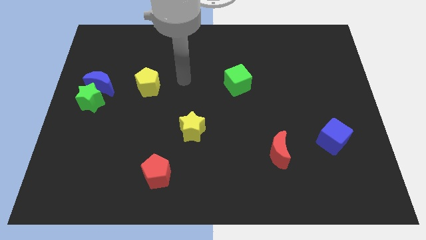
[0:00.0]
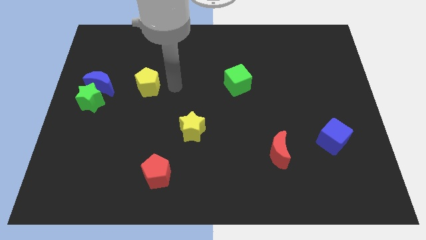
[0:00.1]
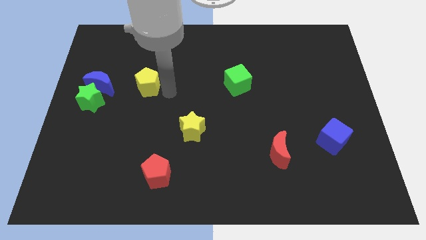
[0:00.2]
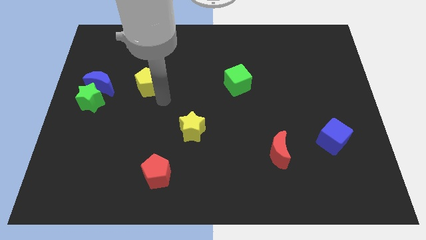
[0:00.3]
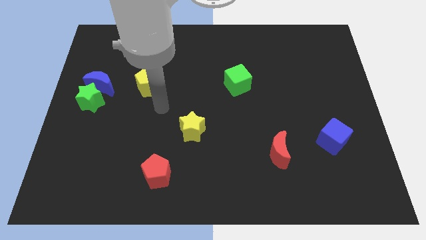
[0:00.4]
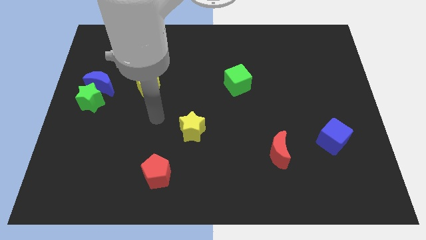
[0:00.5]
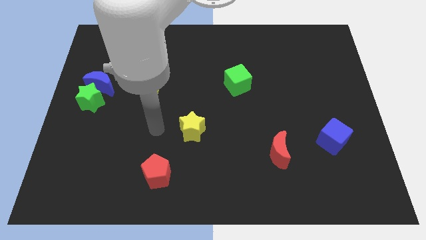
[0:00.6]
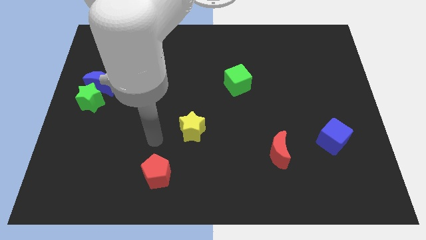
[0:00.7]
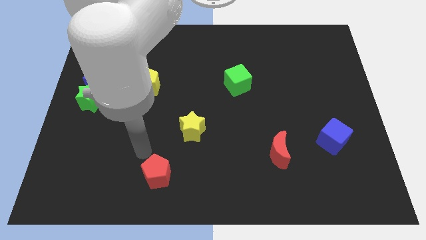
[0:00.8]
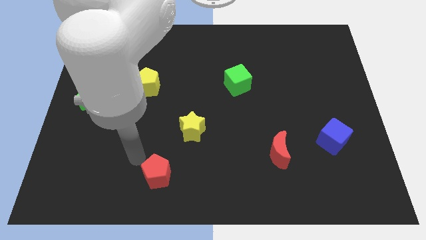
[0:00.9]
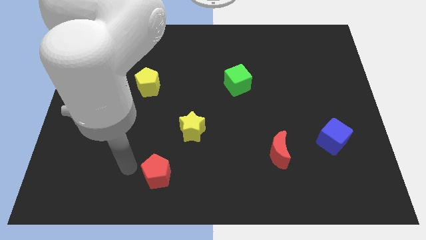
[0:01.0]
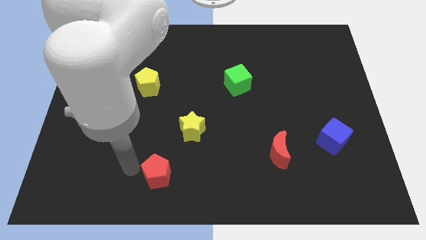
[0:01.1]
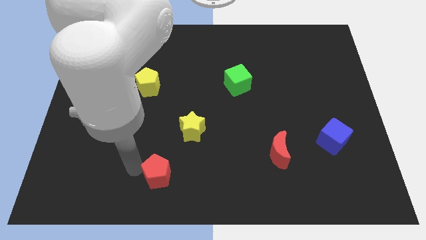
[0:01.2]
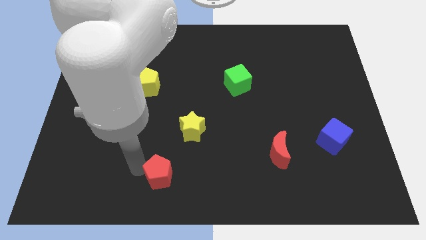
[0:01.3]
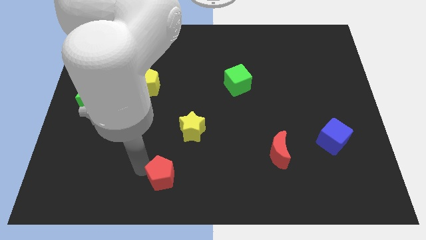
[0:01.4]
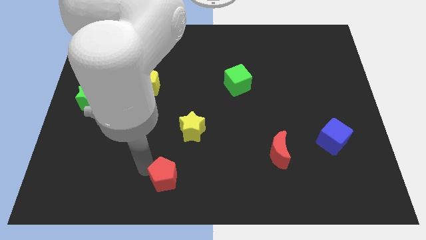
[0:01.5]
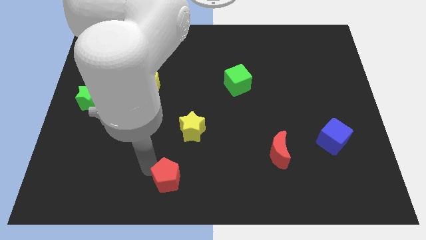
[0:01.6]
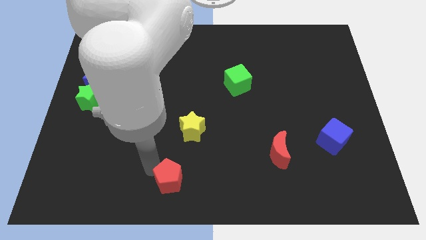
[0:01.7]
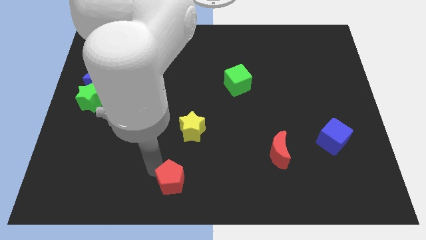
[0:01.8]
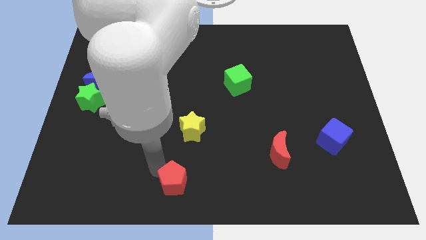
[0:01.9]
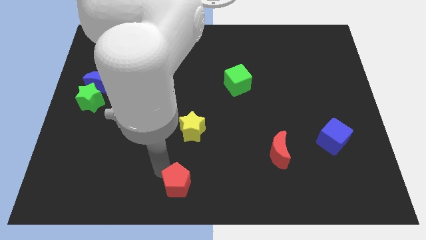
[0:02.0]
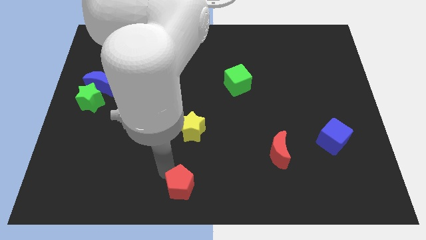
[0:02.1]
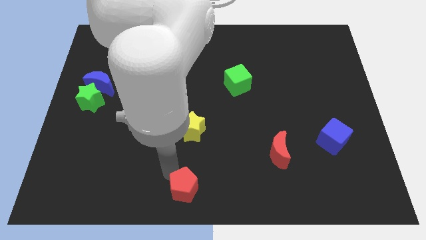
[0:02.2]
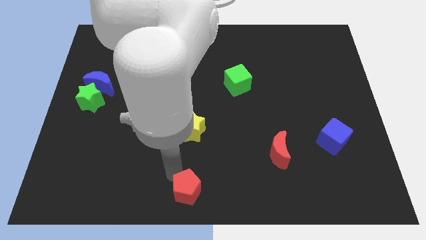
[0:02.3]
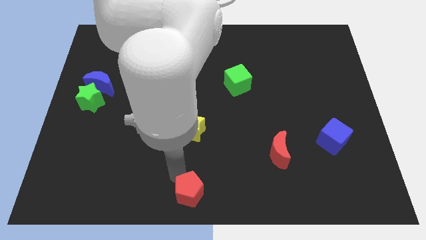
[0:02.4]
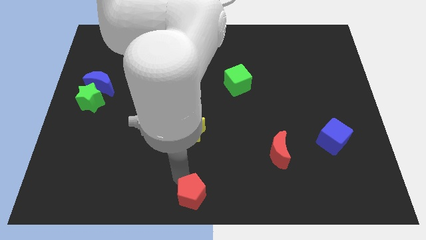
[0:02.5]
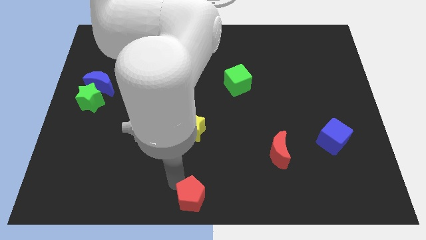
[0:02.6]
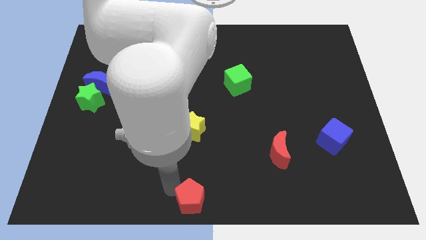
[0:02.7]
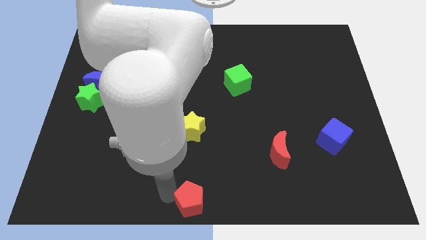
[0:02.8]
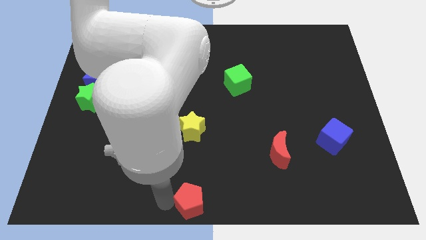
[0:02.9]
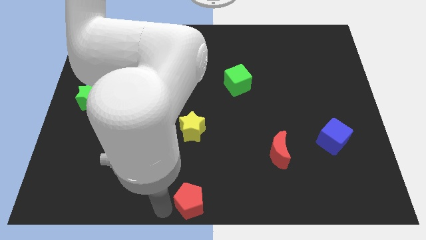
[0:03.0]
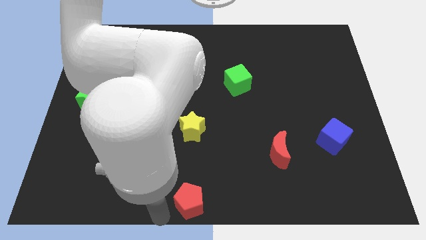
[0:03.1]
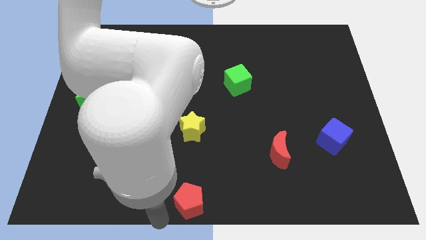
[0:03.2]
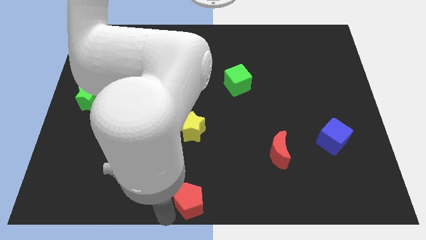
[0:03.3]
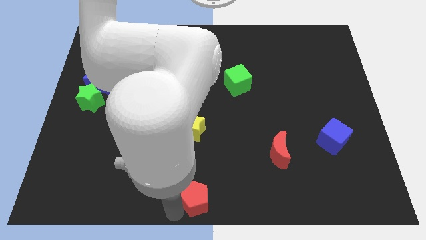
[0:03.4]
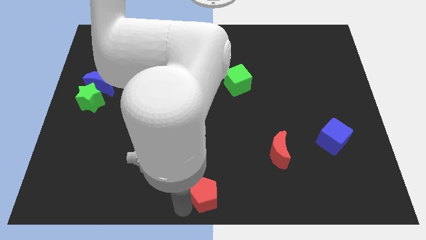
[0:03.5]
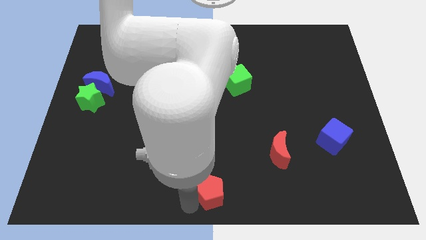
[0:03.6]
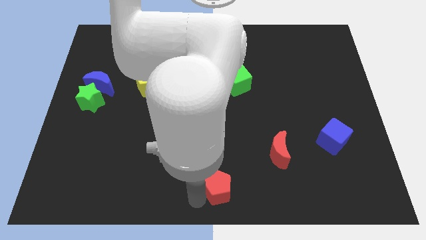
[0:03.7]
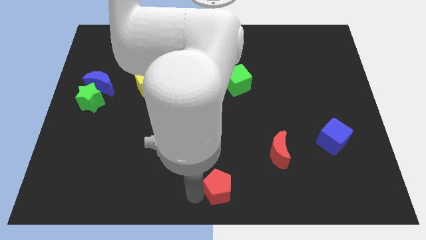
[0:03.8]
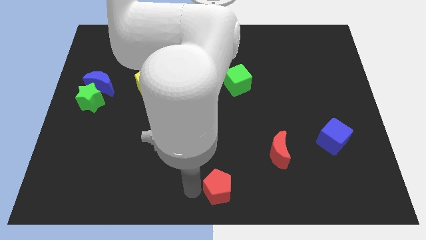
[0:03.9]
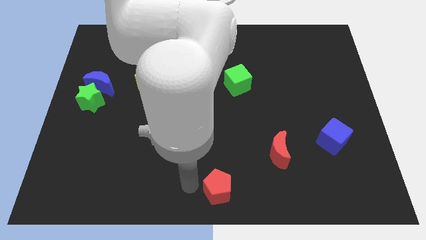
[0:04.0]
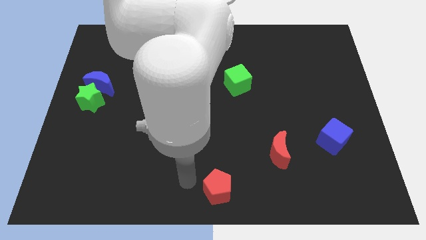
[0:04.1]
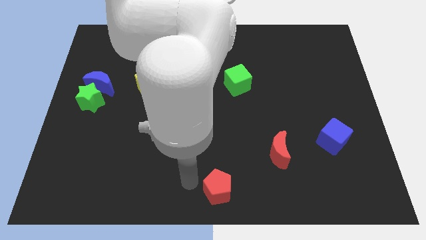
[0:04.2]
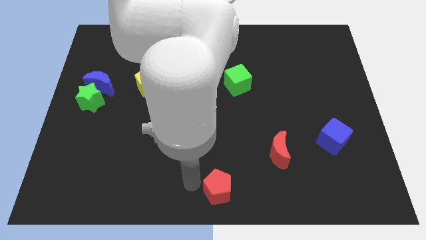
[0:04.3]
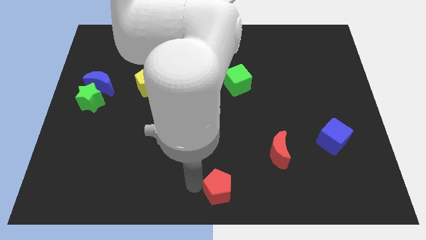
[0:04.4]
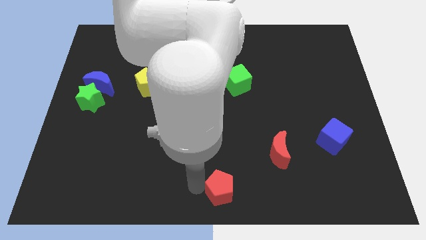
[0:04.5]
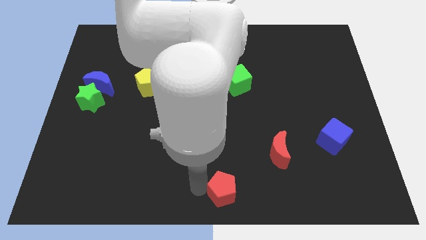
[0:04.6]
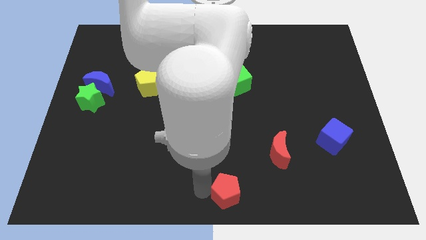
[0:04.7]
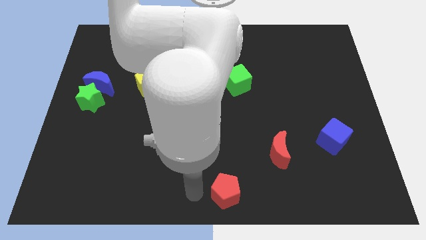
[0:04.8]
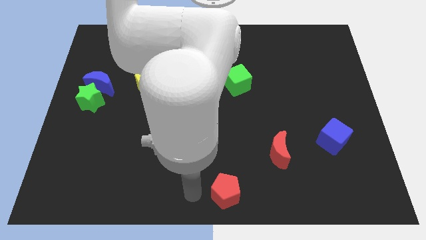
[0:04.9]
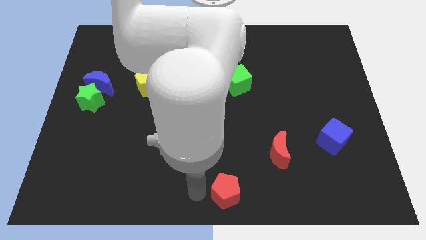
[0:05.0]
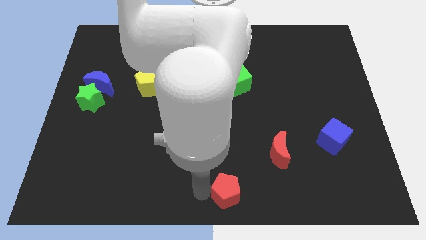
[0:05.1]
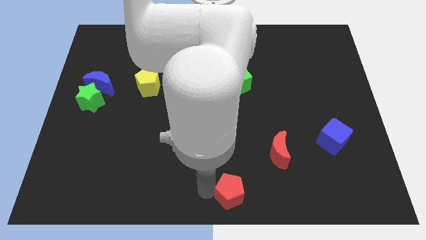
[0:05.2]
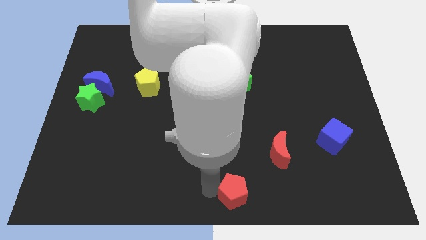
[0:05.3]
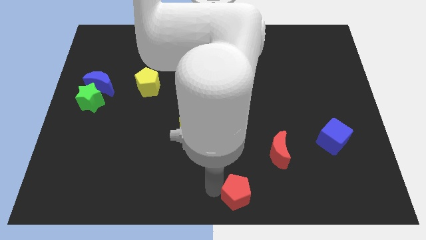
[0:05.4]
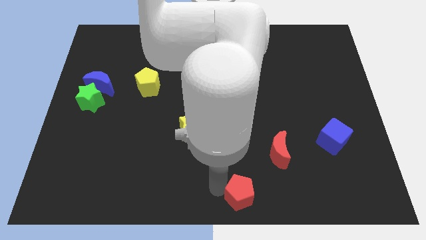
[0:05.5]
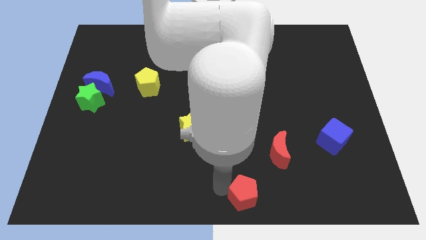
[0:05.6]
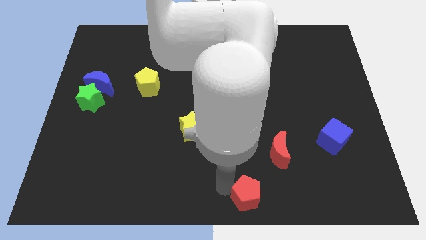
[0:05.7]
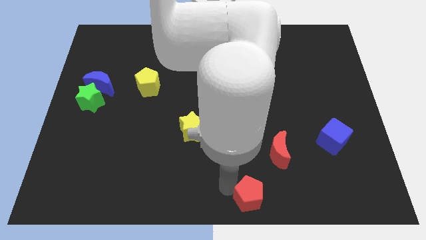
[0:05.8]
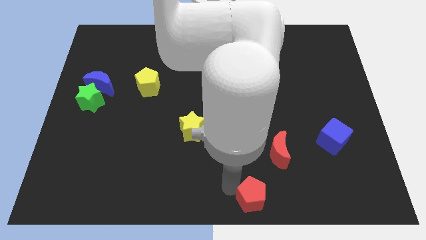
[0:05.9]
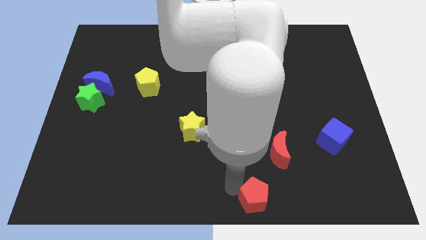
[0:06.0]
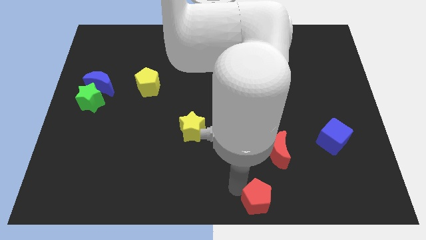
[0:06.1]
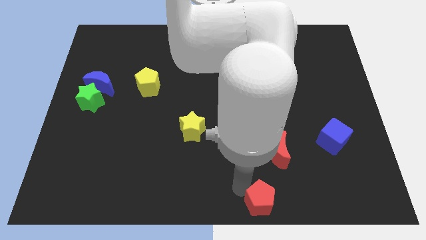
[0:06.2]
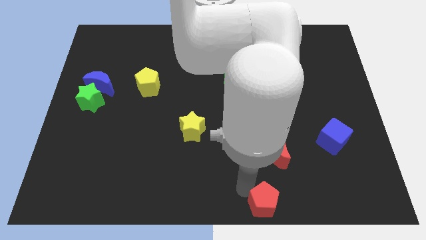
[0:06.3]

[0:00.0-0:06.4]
slide the red pentagon right

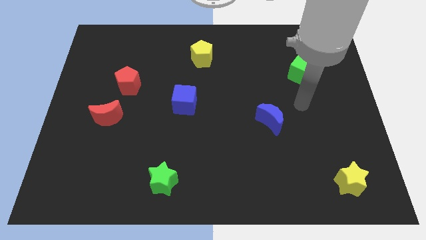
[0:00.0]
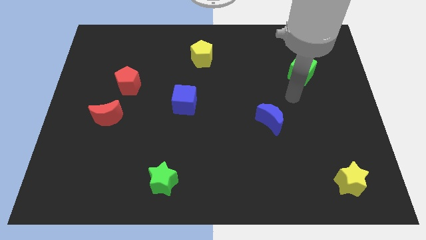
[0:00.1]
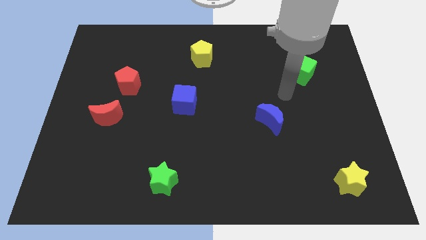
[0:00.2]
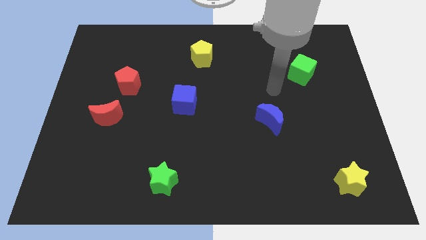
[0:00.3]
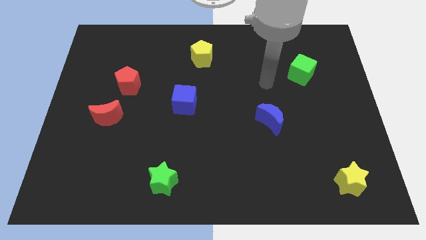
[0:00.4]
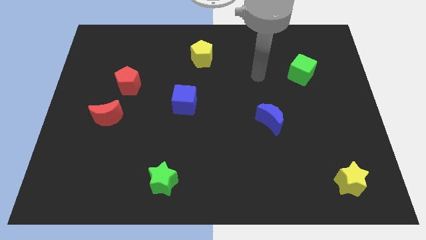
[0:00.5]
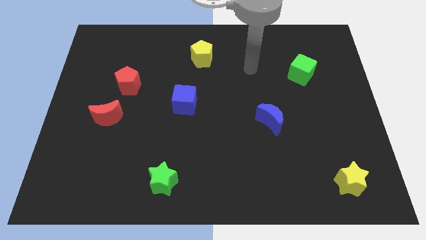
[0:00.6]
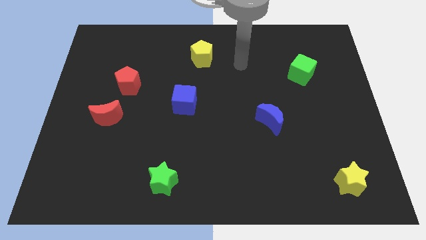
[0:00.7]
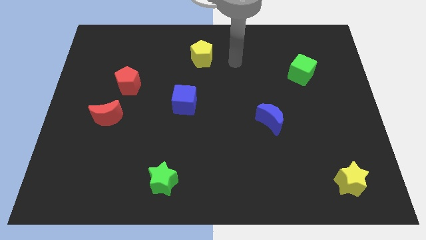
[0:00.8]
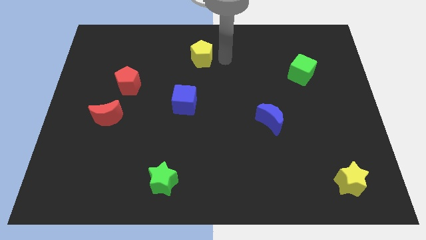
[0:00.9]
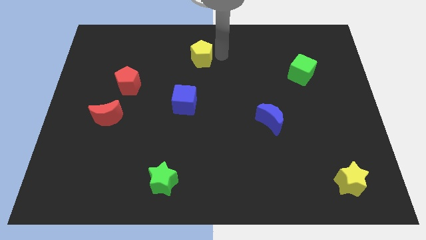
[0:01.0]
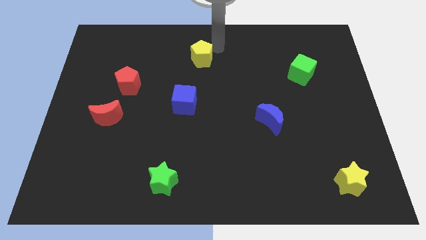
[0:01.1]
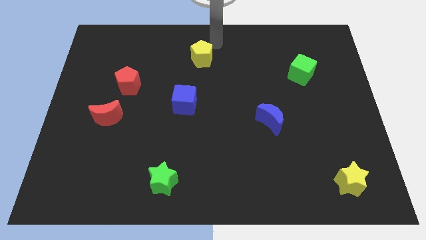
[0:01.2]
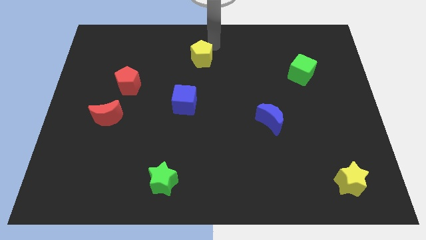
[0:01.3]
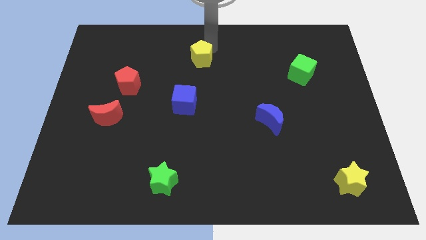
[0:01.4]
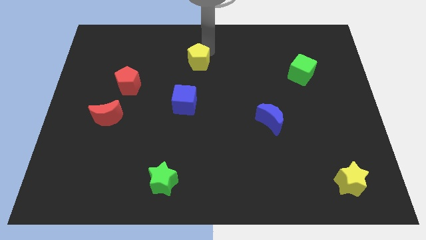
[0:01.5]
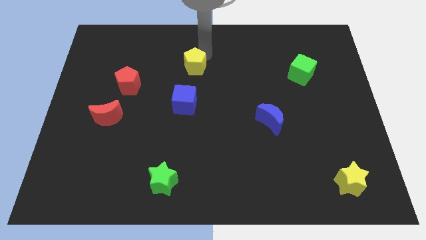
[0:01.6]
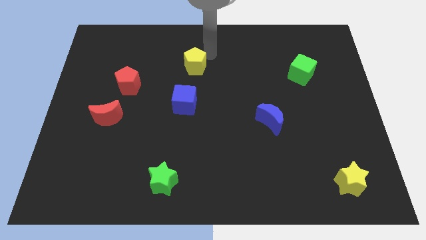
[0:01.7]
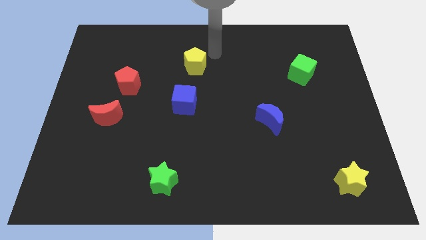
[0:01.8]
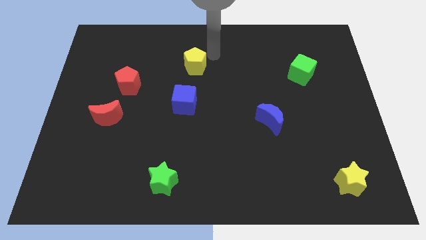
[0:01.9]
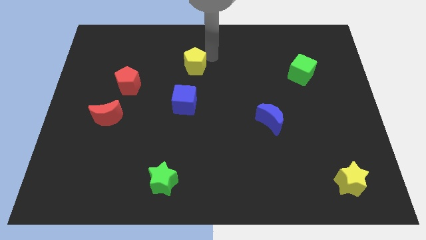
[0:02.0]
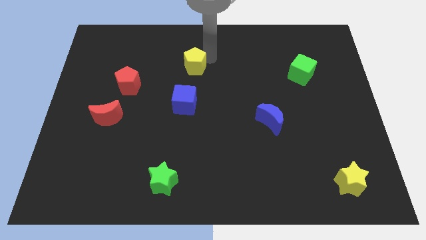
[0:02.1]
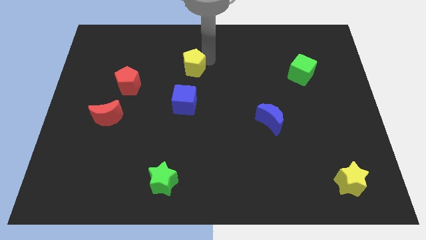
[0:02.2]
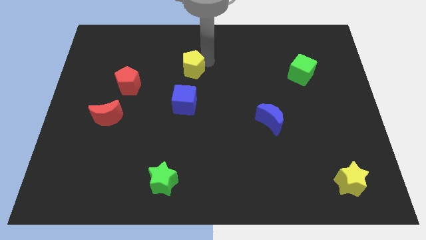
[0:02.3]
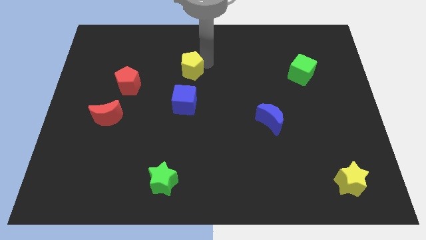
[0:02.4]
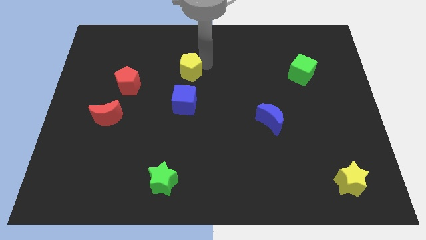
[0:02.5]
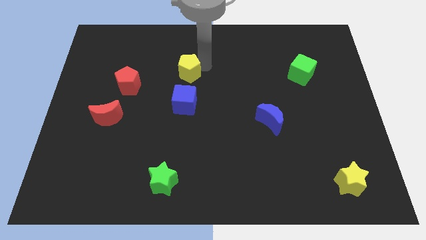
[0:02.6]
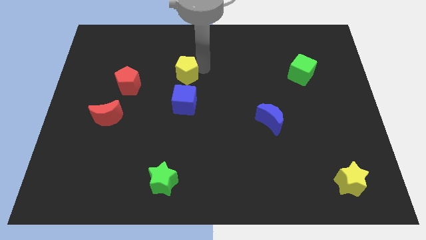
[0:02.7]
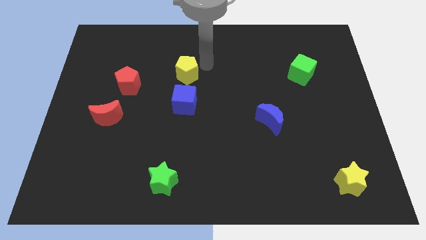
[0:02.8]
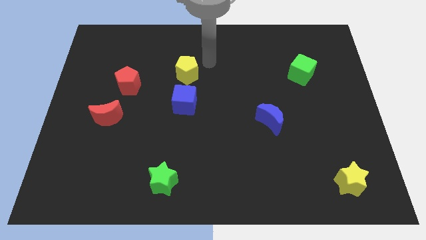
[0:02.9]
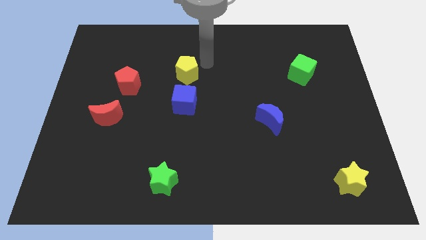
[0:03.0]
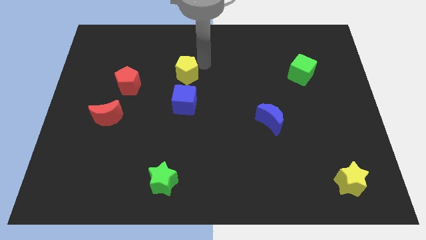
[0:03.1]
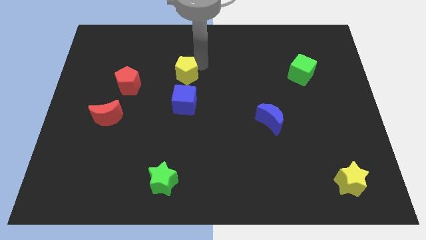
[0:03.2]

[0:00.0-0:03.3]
slightly move the yellow pentagon down and left
